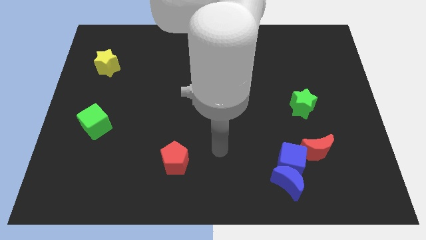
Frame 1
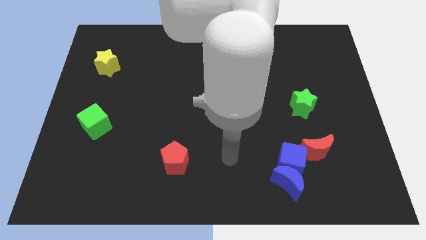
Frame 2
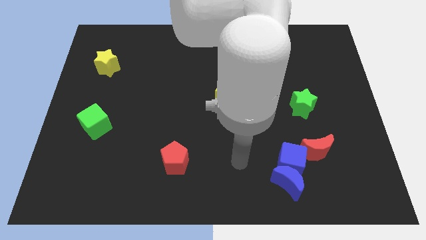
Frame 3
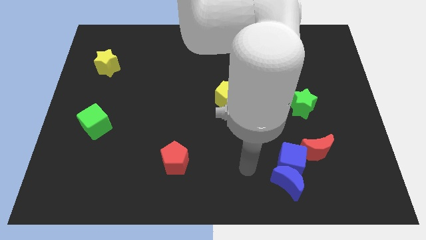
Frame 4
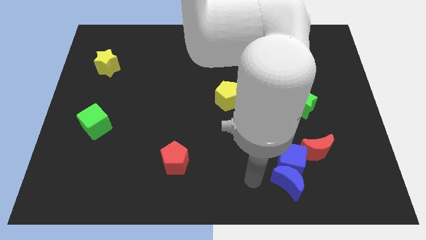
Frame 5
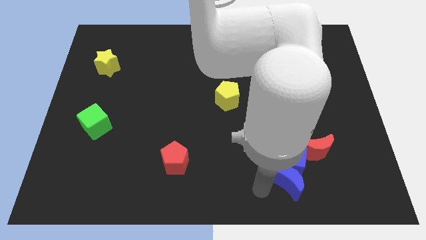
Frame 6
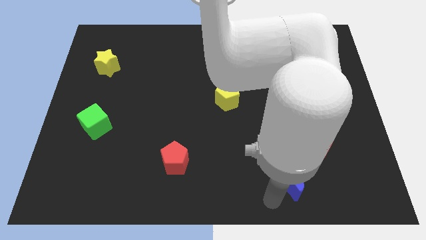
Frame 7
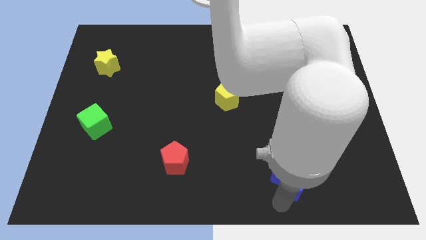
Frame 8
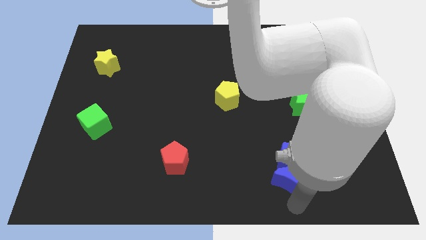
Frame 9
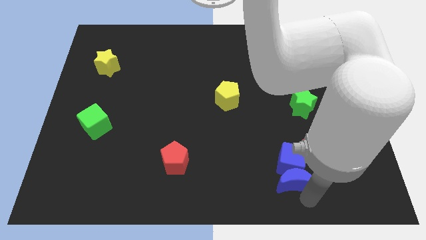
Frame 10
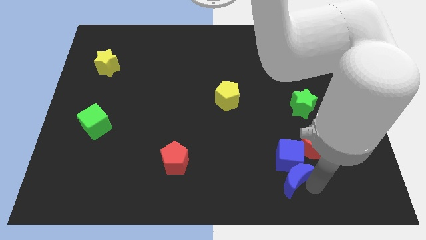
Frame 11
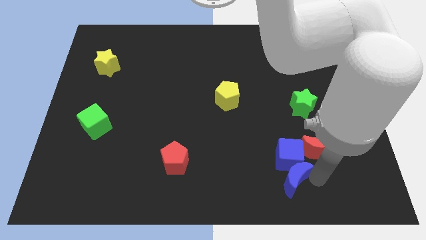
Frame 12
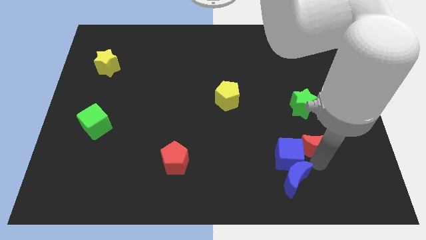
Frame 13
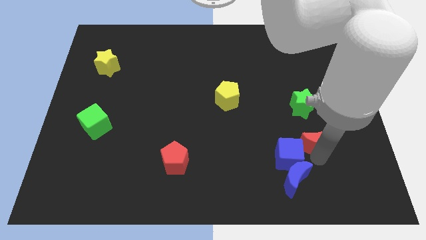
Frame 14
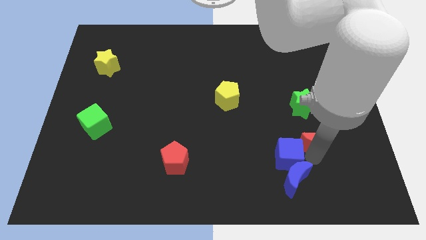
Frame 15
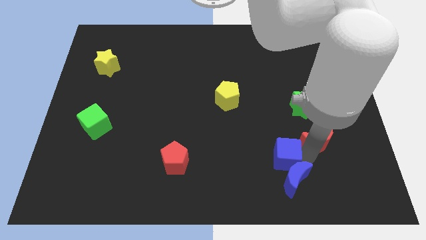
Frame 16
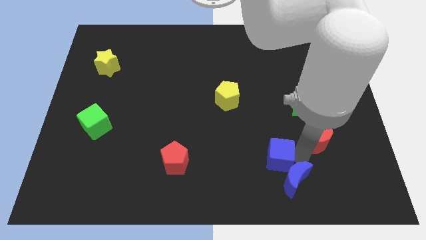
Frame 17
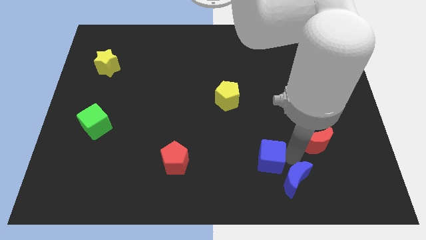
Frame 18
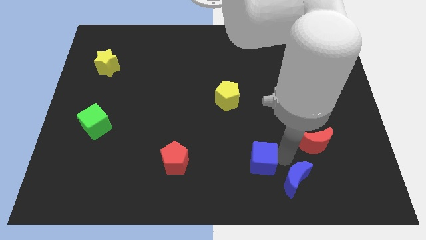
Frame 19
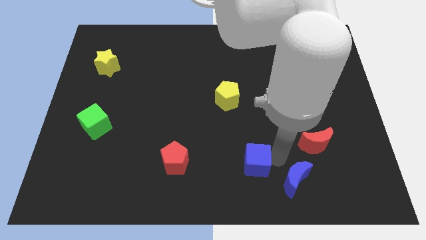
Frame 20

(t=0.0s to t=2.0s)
separate the blue cube from the blue moon and red moon

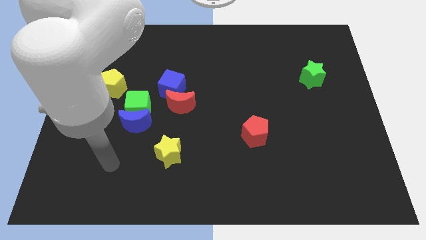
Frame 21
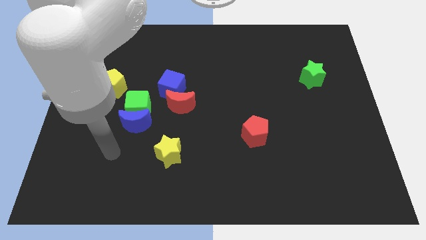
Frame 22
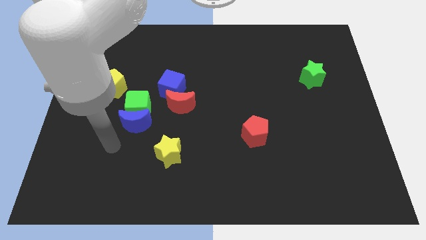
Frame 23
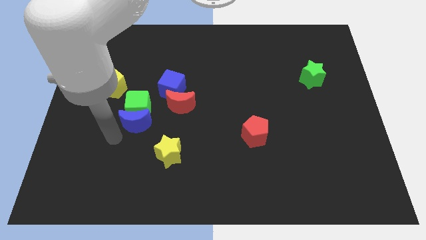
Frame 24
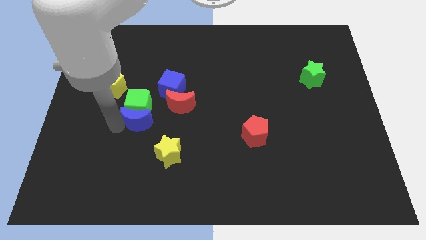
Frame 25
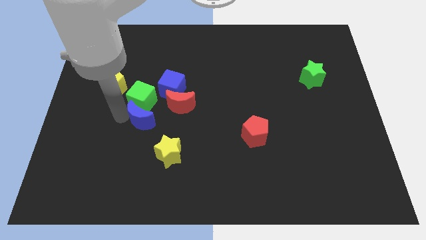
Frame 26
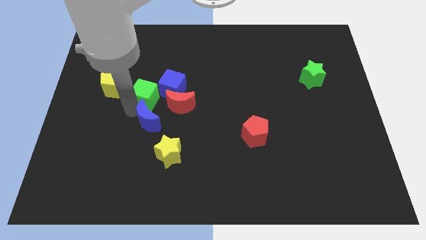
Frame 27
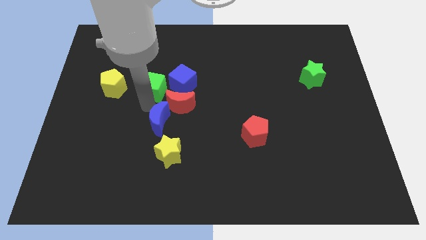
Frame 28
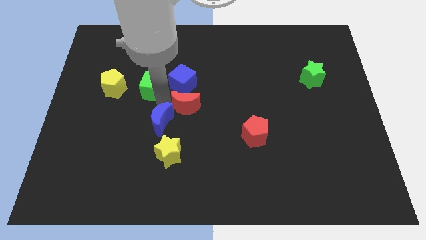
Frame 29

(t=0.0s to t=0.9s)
pull the blue moon apart from the green cube

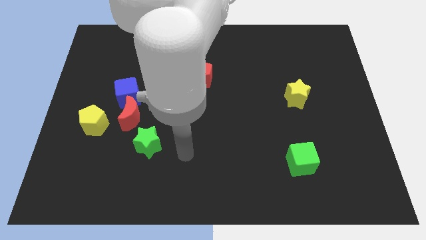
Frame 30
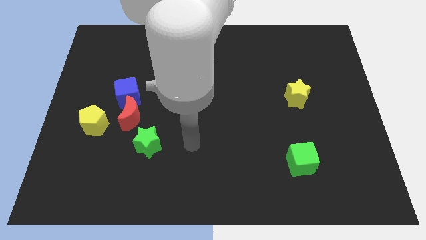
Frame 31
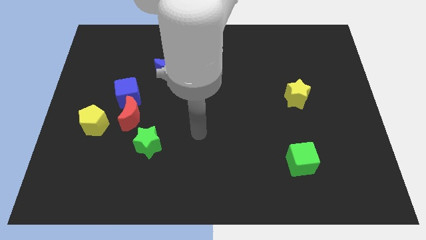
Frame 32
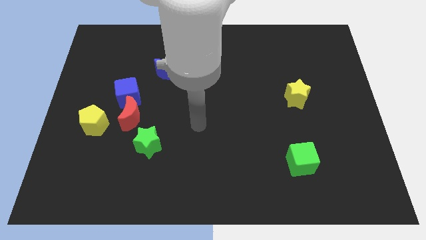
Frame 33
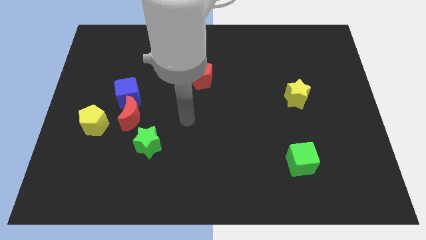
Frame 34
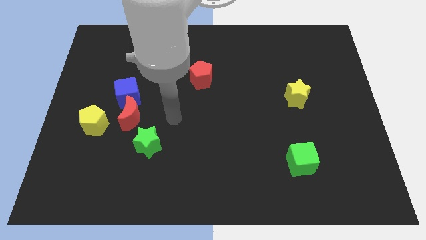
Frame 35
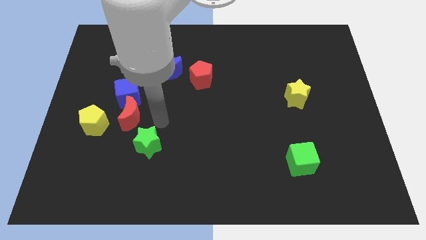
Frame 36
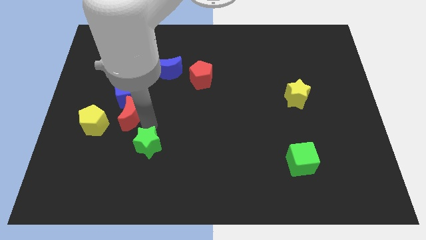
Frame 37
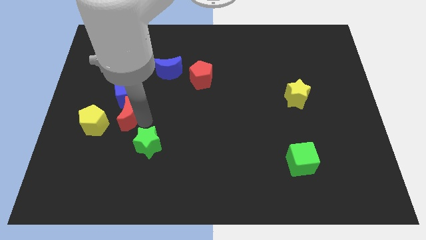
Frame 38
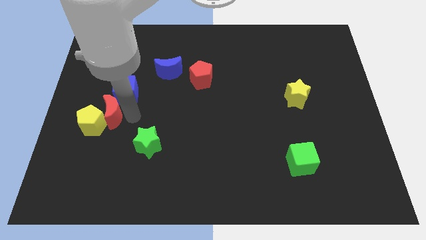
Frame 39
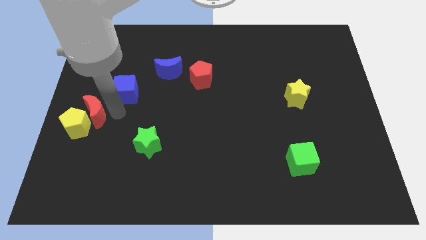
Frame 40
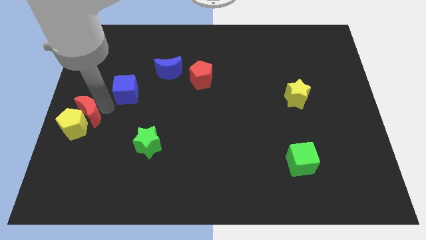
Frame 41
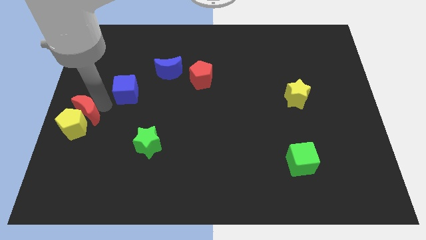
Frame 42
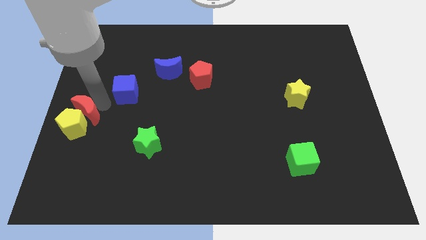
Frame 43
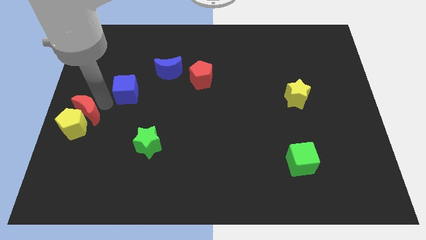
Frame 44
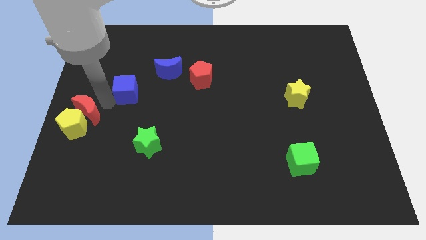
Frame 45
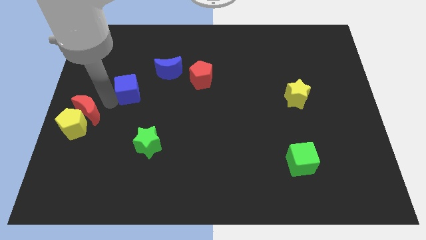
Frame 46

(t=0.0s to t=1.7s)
move the blue cube away from the red moon

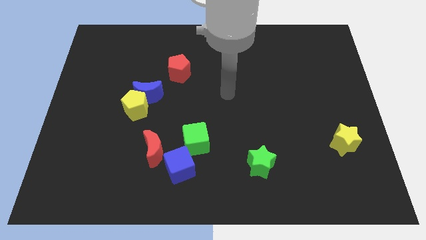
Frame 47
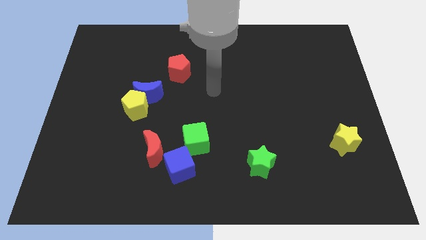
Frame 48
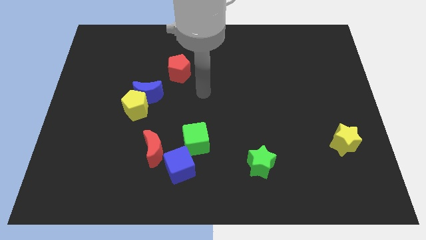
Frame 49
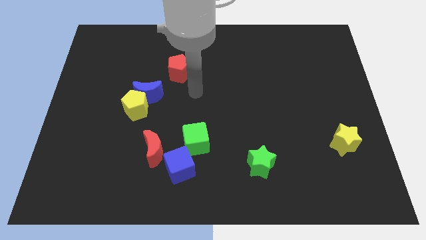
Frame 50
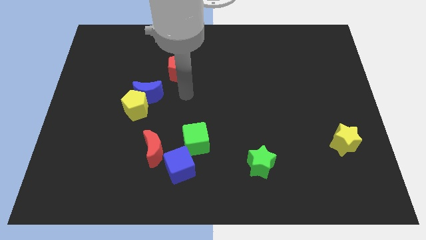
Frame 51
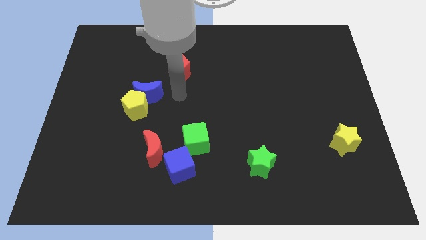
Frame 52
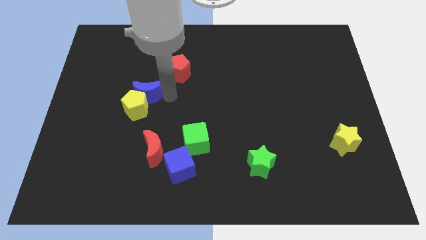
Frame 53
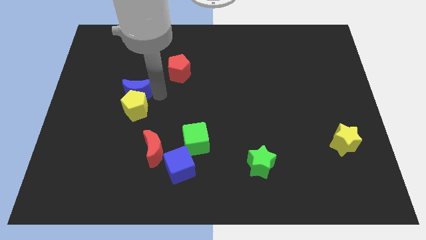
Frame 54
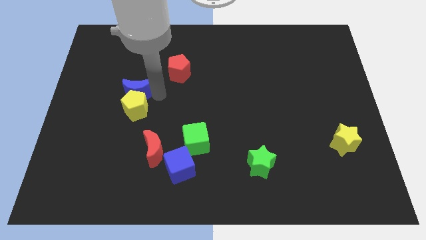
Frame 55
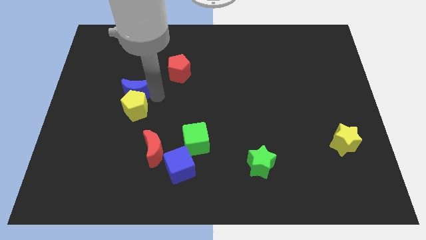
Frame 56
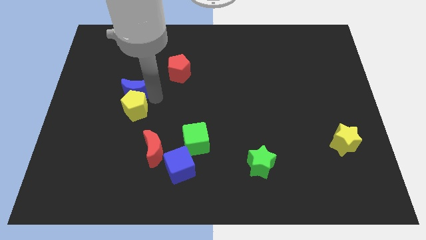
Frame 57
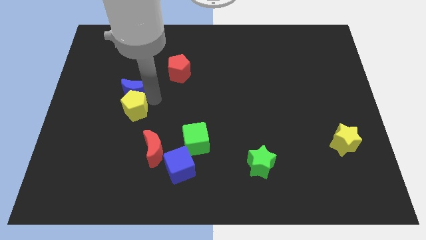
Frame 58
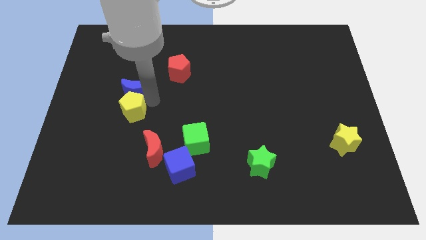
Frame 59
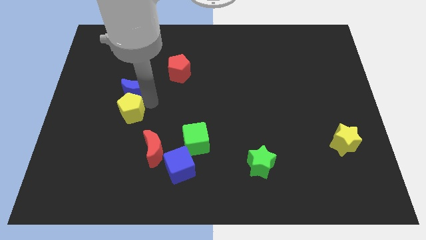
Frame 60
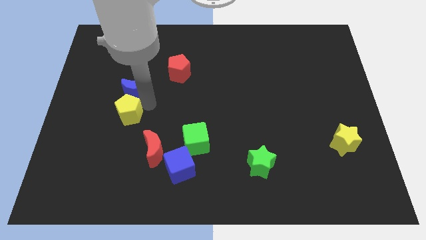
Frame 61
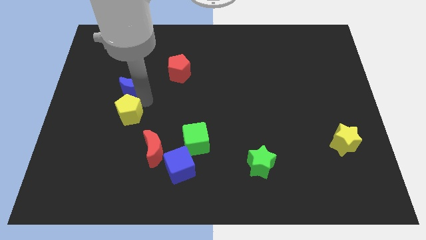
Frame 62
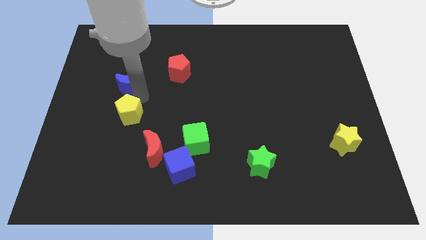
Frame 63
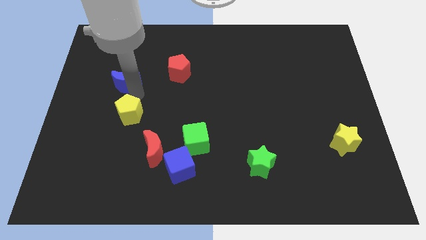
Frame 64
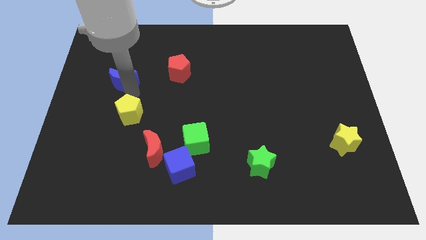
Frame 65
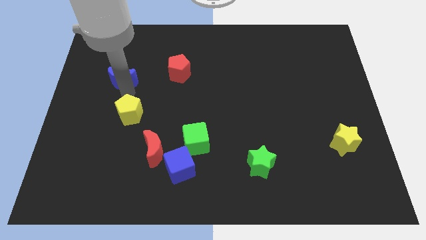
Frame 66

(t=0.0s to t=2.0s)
move the yellow pentagon away from the blue moon

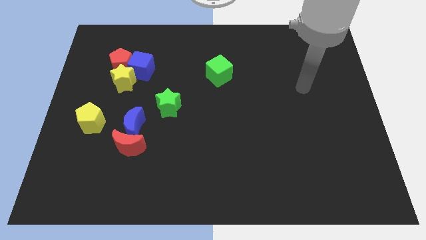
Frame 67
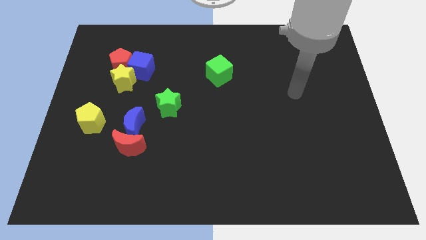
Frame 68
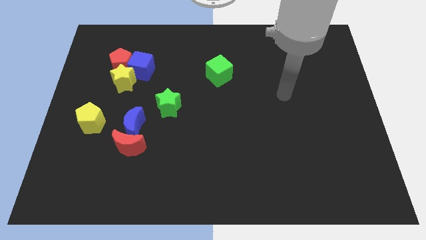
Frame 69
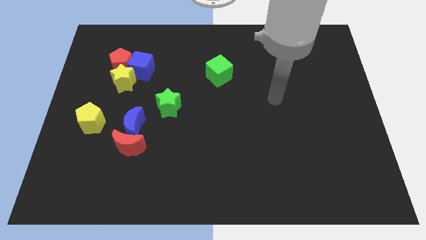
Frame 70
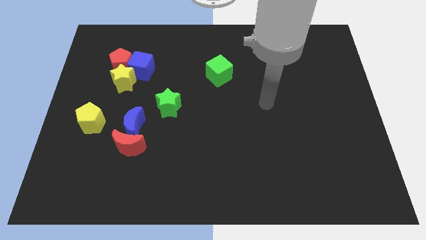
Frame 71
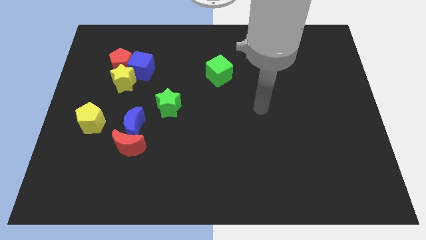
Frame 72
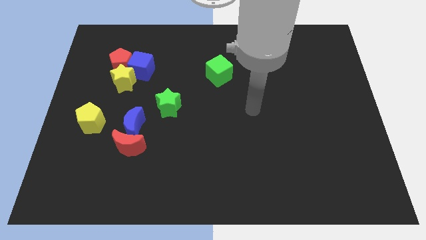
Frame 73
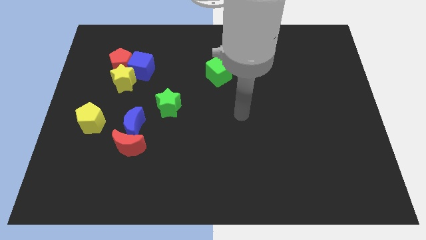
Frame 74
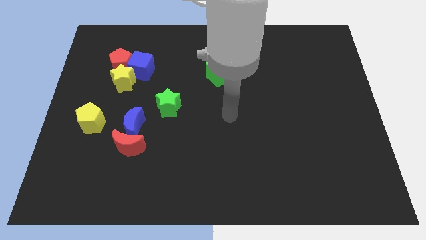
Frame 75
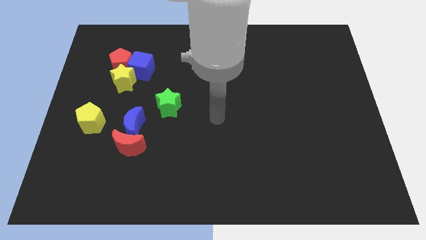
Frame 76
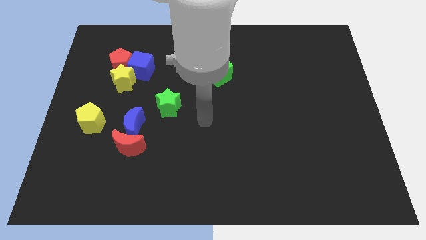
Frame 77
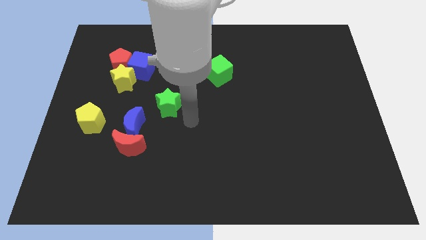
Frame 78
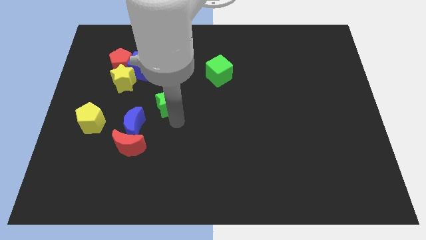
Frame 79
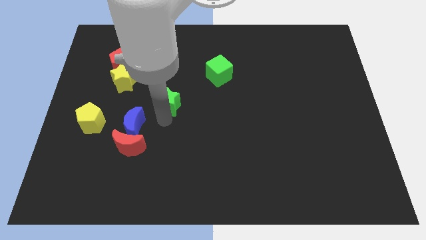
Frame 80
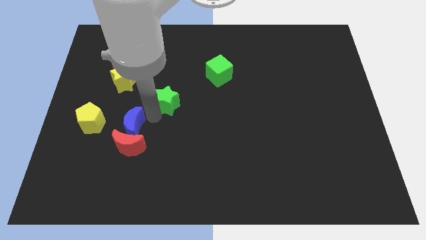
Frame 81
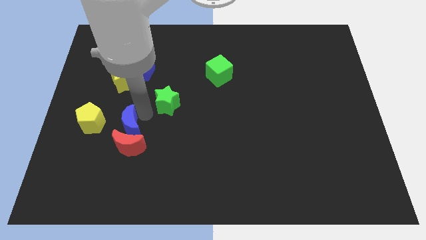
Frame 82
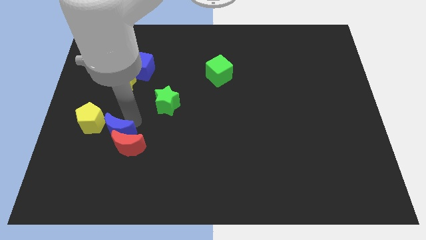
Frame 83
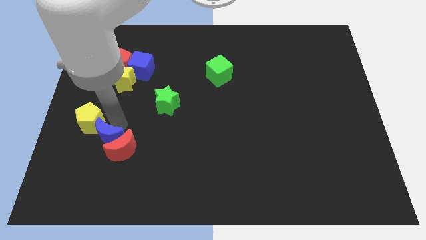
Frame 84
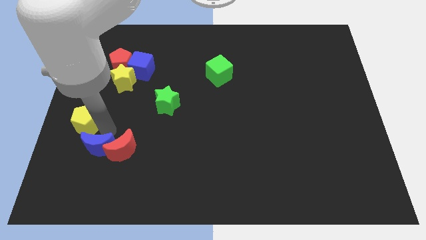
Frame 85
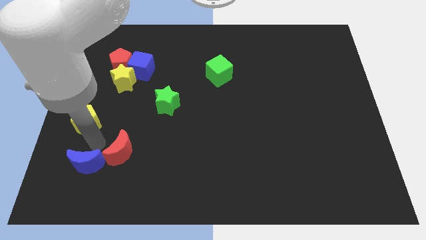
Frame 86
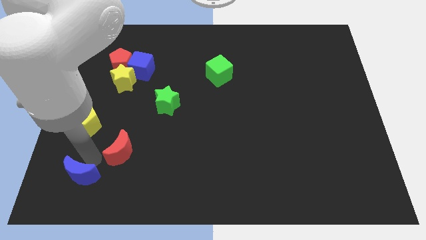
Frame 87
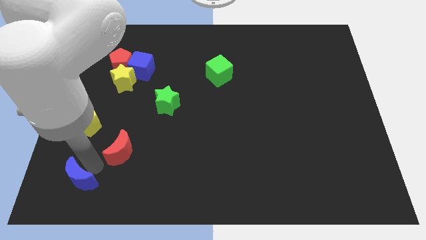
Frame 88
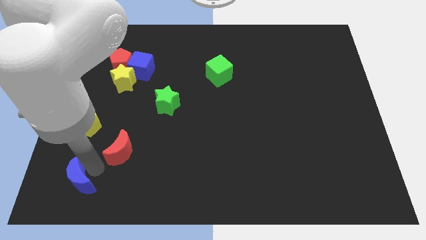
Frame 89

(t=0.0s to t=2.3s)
move the red moon away from the blue moon

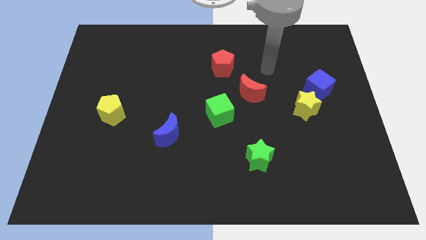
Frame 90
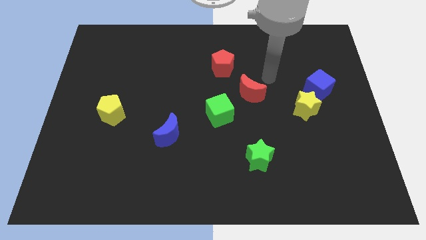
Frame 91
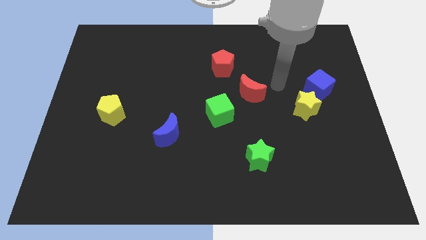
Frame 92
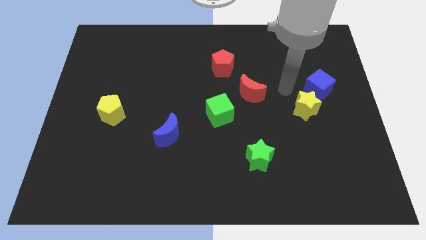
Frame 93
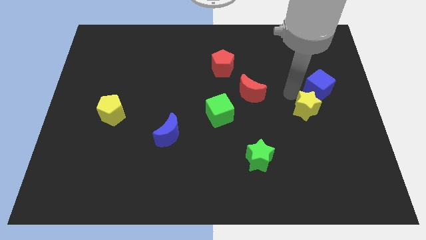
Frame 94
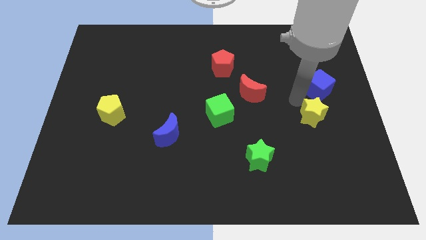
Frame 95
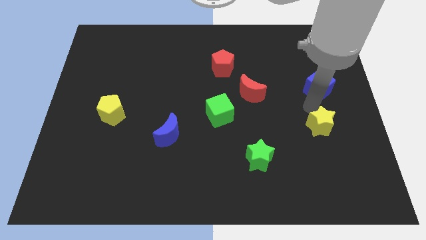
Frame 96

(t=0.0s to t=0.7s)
separate the blue cube from the yellow star
